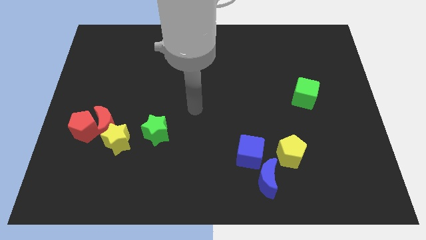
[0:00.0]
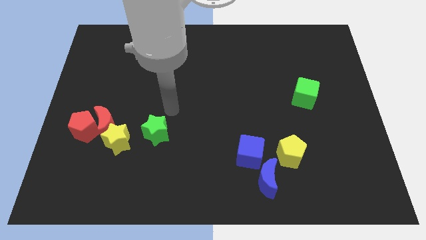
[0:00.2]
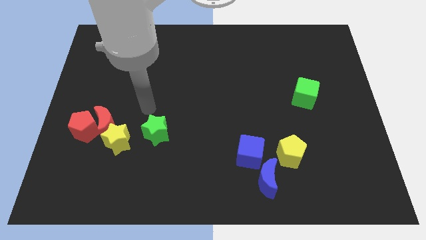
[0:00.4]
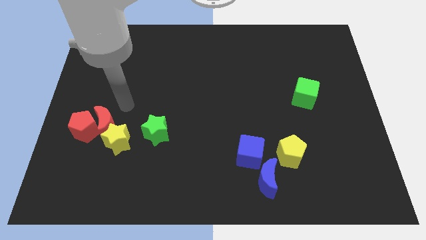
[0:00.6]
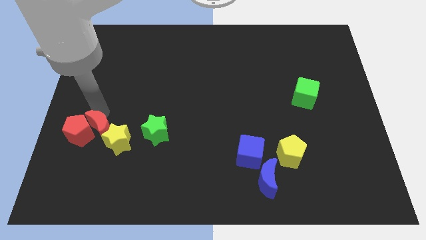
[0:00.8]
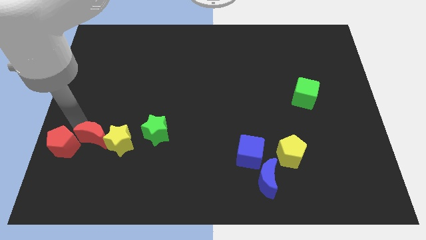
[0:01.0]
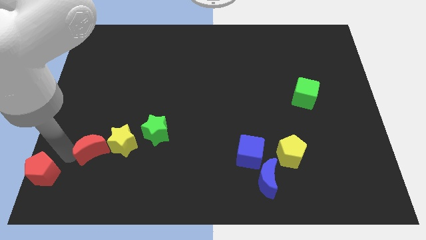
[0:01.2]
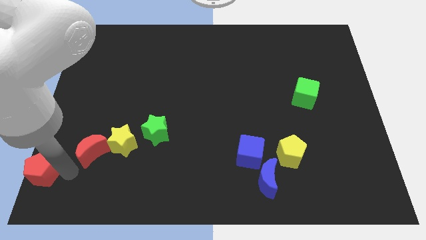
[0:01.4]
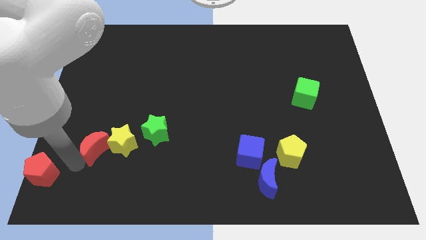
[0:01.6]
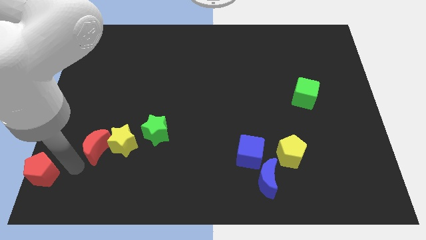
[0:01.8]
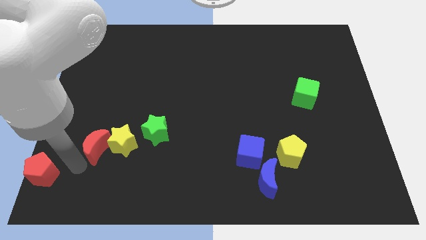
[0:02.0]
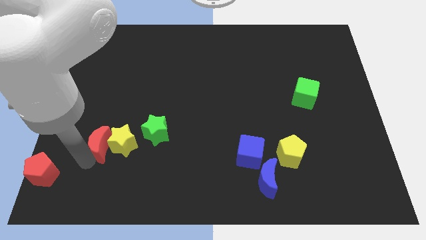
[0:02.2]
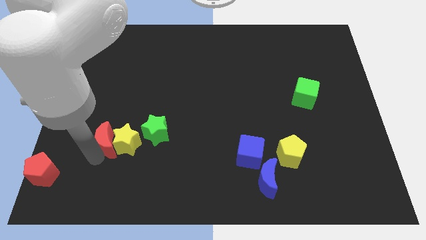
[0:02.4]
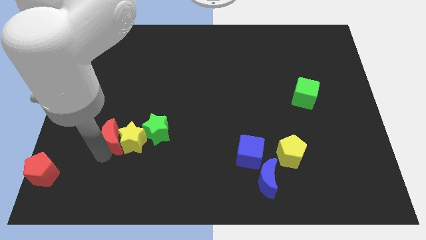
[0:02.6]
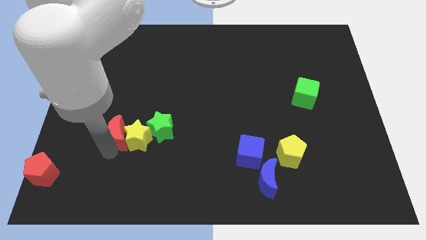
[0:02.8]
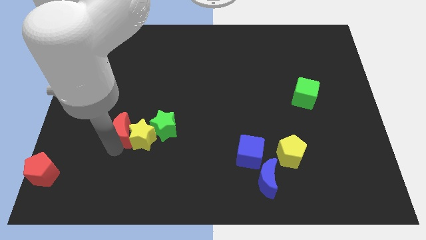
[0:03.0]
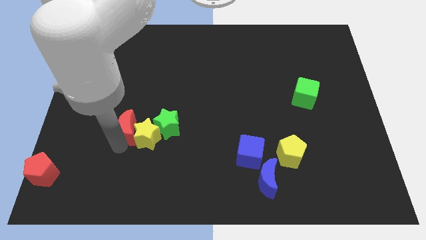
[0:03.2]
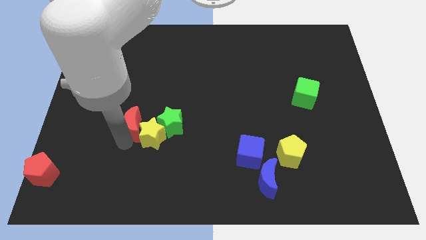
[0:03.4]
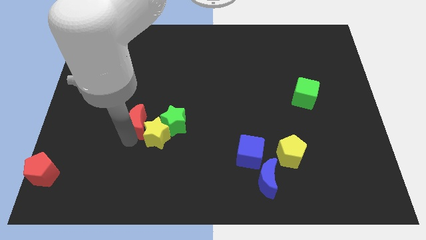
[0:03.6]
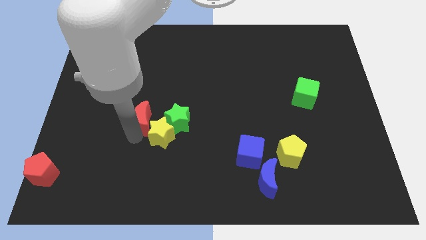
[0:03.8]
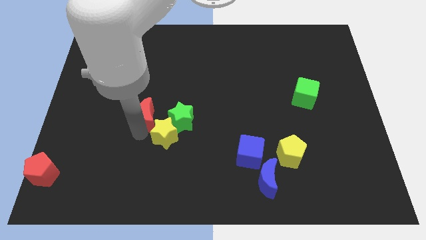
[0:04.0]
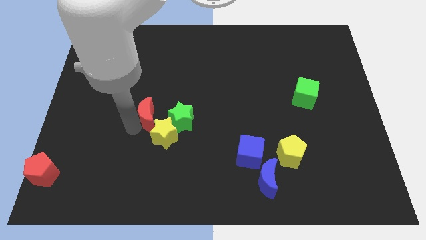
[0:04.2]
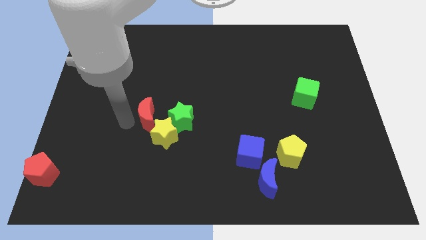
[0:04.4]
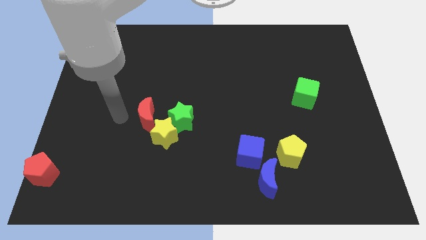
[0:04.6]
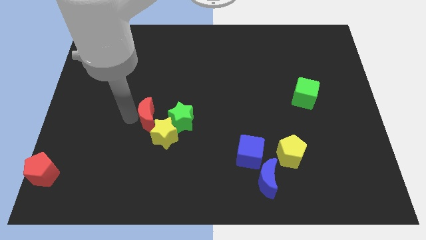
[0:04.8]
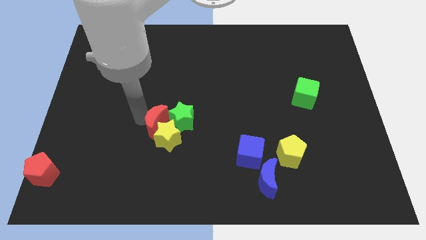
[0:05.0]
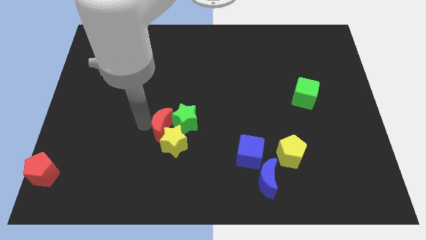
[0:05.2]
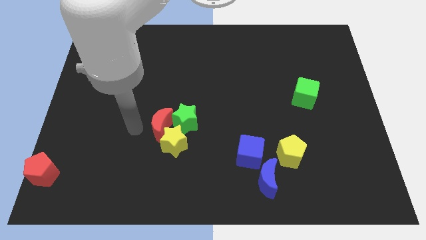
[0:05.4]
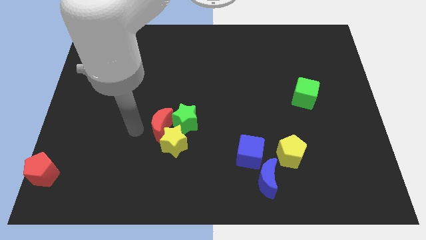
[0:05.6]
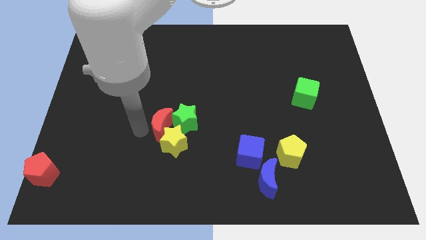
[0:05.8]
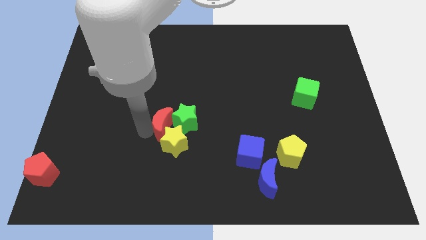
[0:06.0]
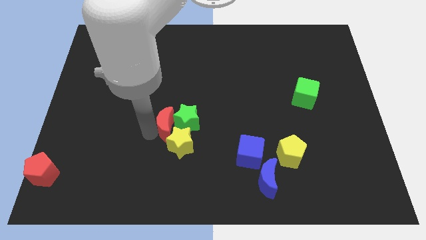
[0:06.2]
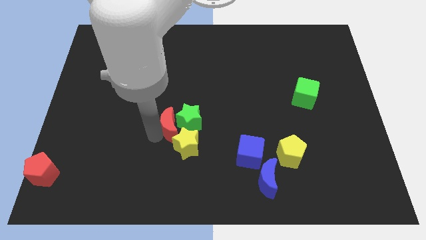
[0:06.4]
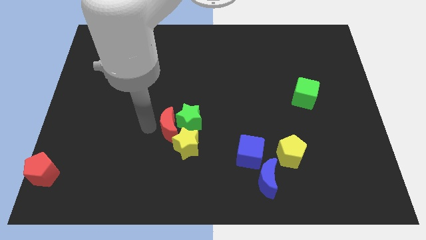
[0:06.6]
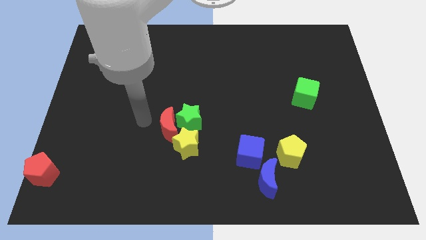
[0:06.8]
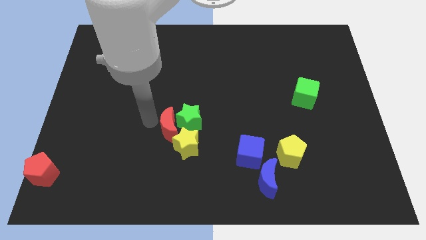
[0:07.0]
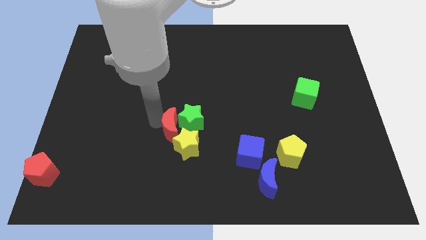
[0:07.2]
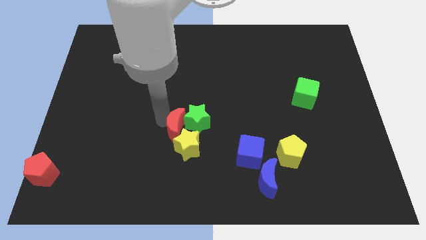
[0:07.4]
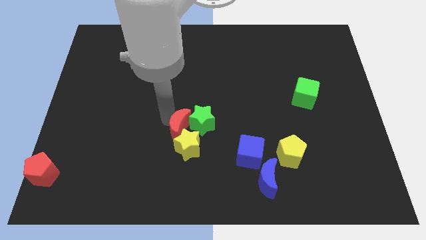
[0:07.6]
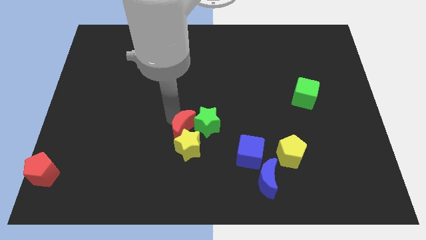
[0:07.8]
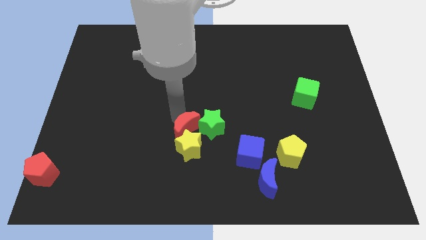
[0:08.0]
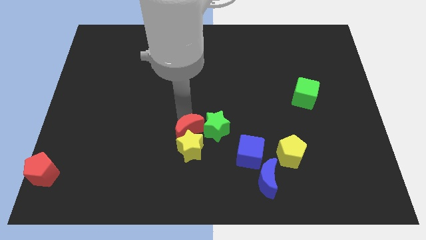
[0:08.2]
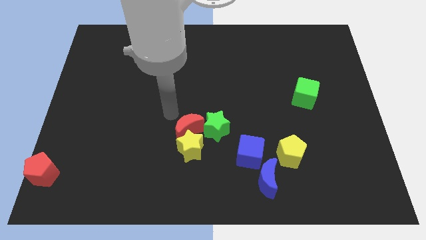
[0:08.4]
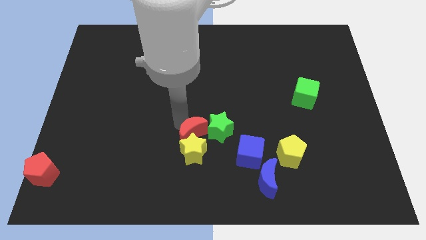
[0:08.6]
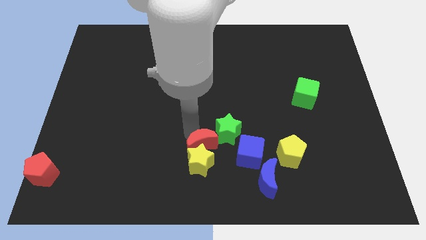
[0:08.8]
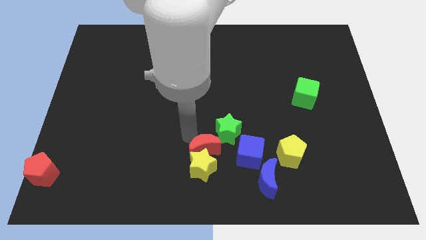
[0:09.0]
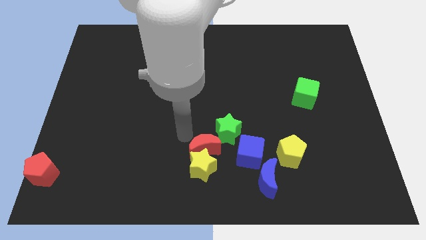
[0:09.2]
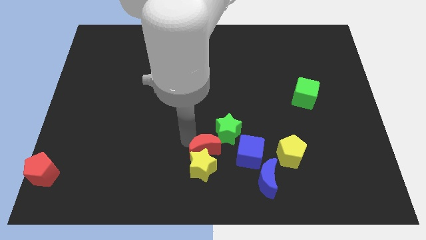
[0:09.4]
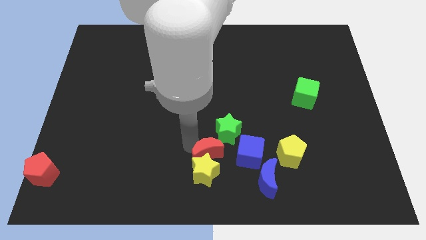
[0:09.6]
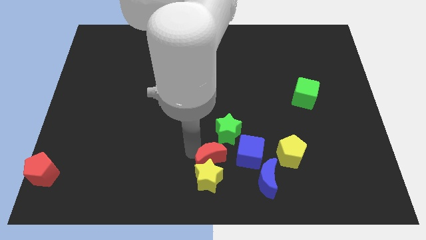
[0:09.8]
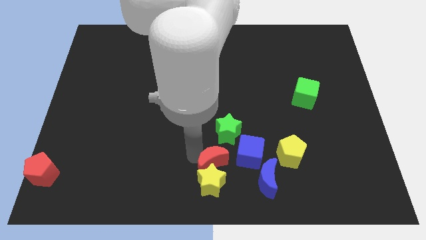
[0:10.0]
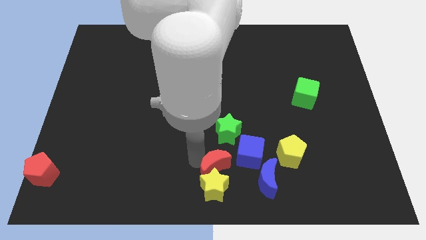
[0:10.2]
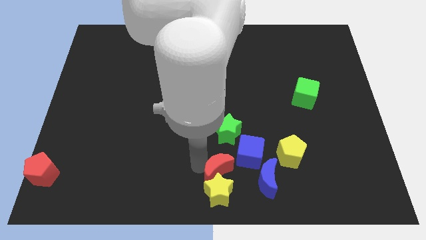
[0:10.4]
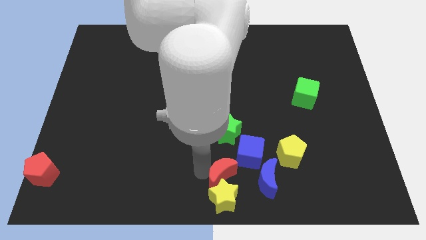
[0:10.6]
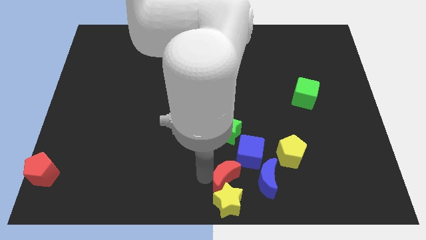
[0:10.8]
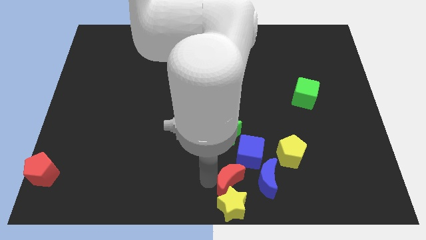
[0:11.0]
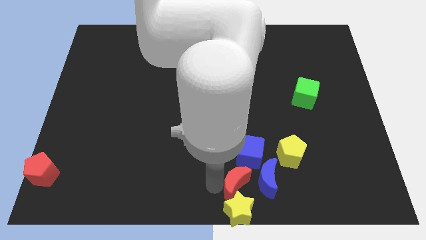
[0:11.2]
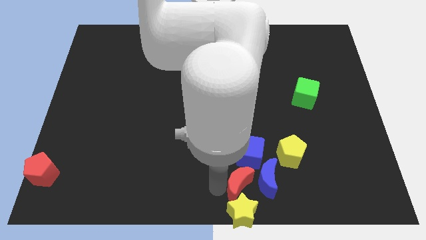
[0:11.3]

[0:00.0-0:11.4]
move the red moon towards the blue moon

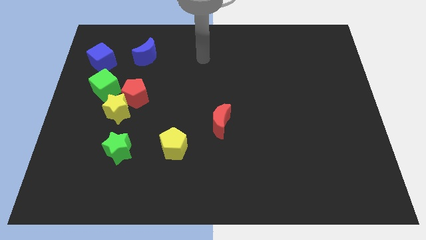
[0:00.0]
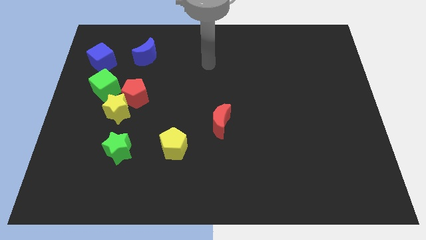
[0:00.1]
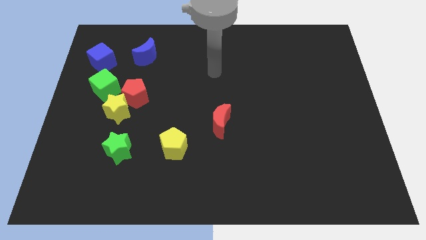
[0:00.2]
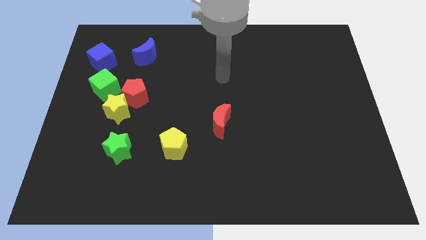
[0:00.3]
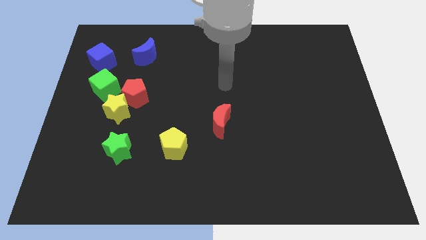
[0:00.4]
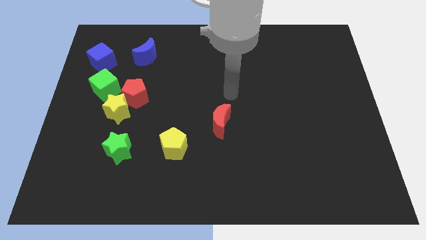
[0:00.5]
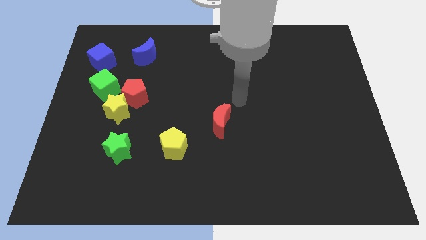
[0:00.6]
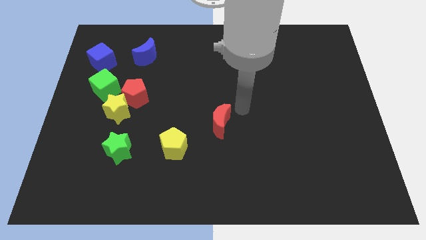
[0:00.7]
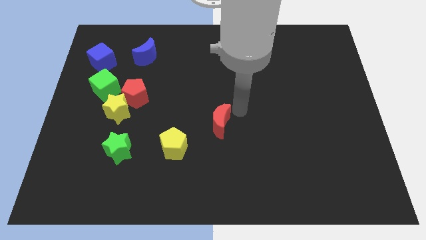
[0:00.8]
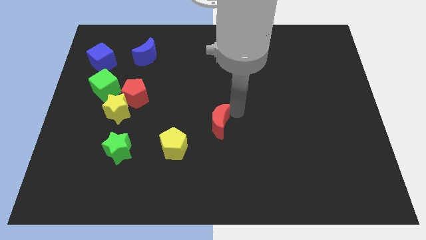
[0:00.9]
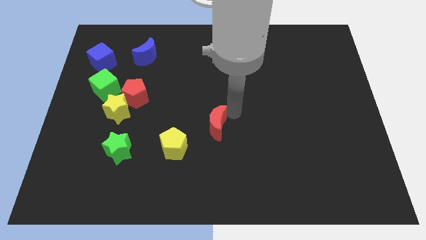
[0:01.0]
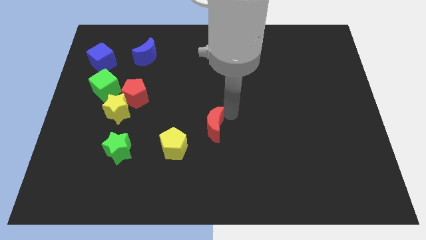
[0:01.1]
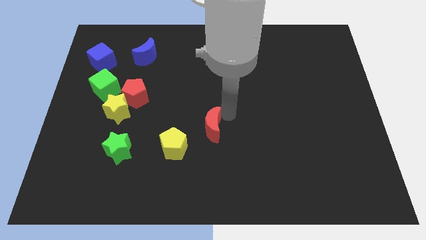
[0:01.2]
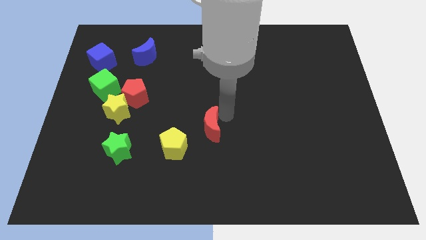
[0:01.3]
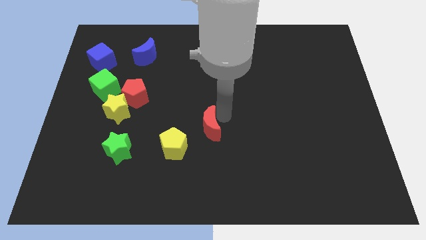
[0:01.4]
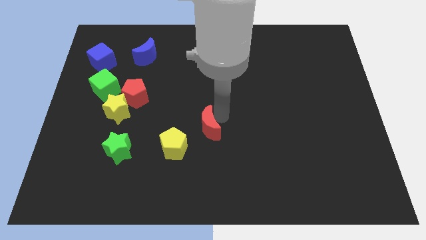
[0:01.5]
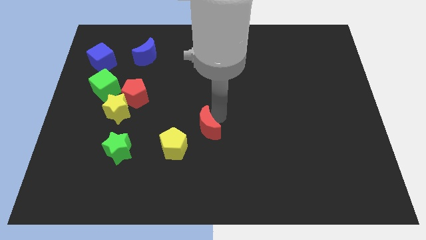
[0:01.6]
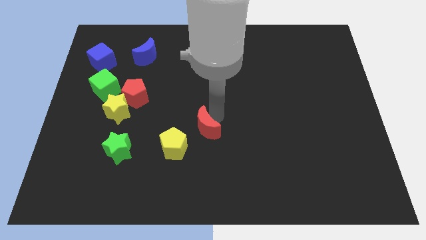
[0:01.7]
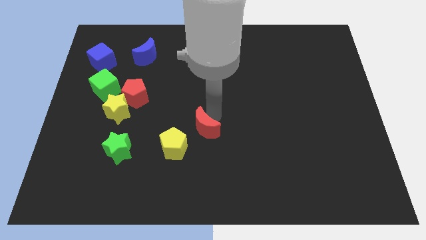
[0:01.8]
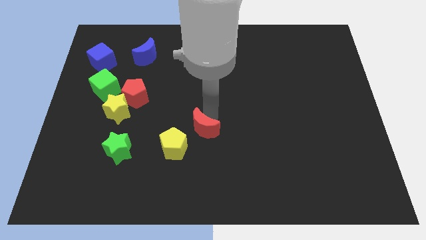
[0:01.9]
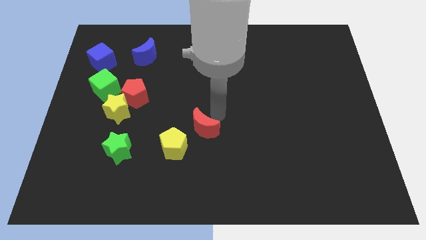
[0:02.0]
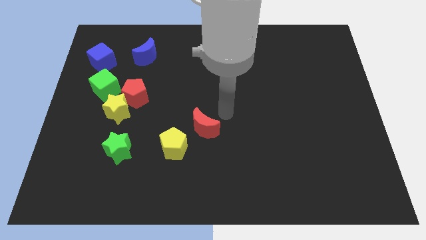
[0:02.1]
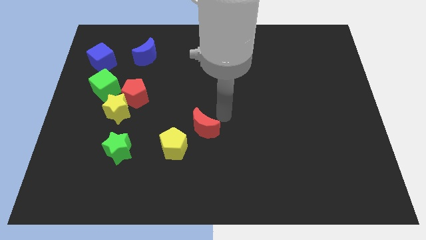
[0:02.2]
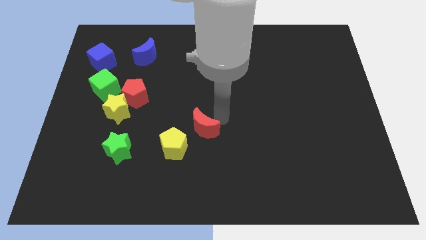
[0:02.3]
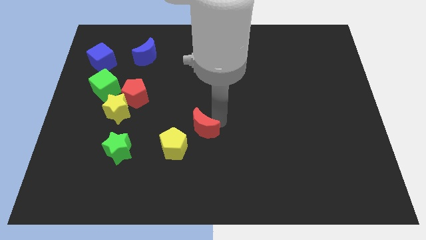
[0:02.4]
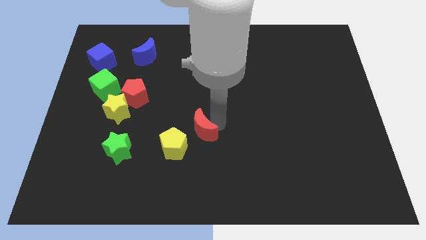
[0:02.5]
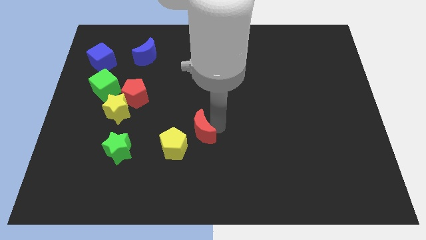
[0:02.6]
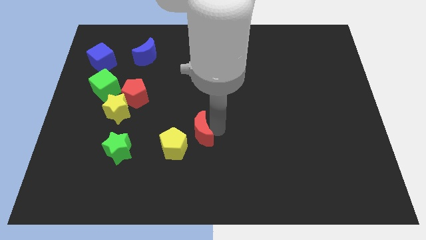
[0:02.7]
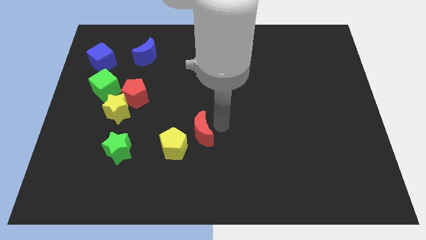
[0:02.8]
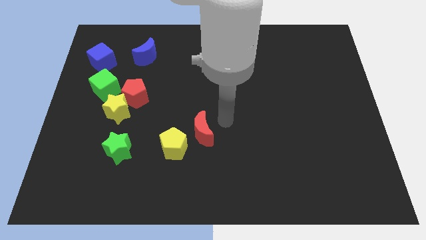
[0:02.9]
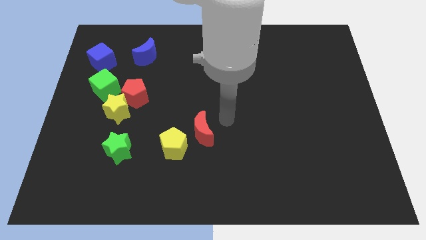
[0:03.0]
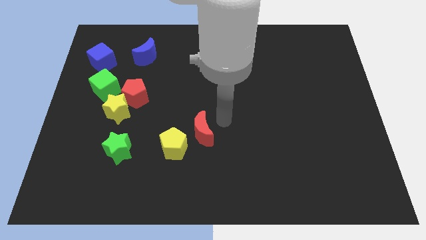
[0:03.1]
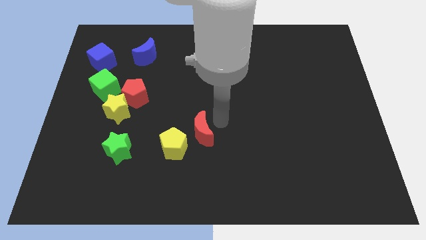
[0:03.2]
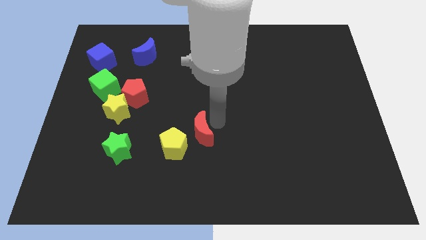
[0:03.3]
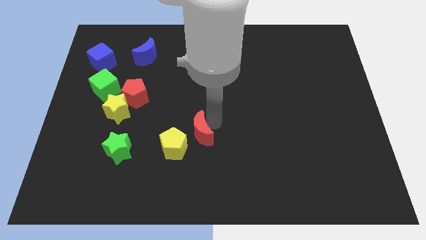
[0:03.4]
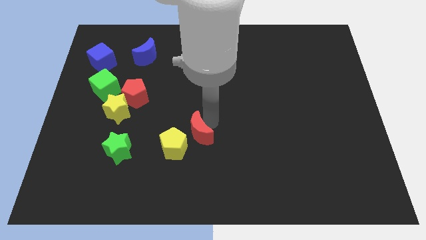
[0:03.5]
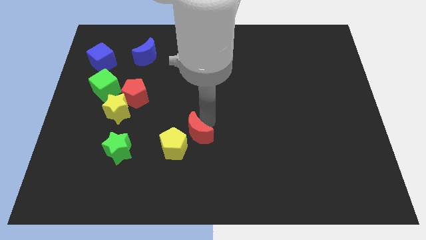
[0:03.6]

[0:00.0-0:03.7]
move the red moon close to the yellow pentagon
